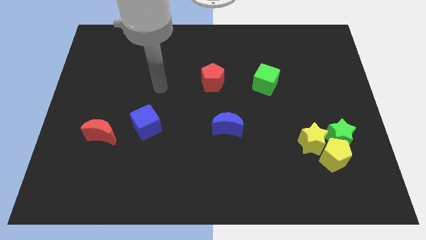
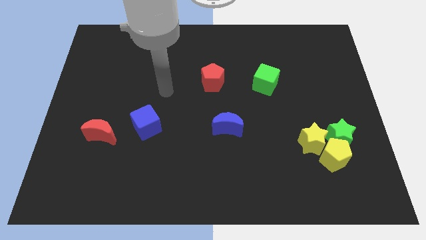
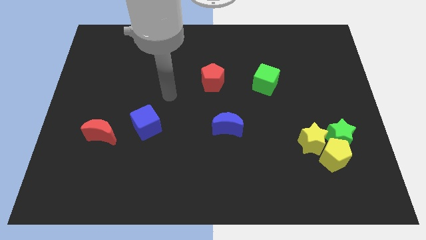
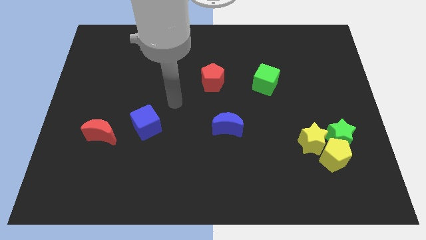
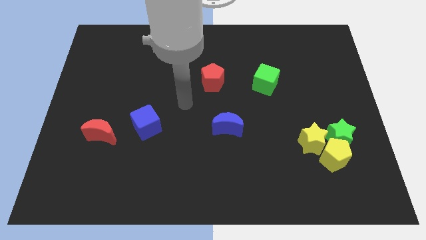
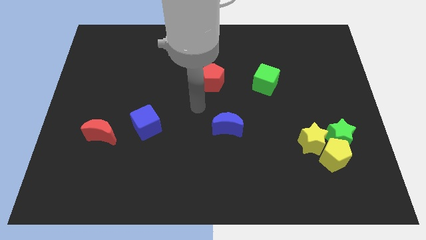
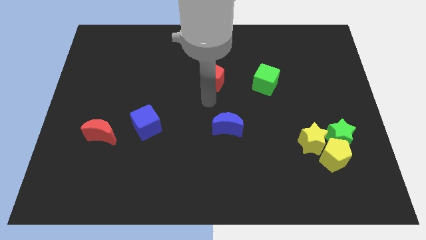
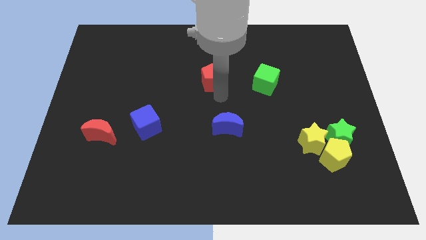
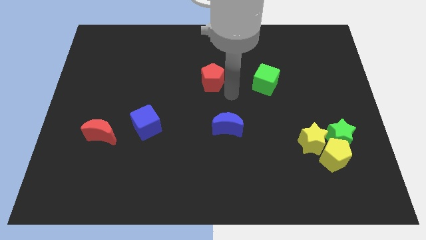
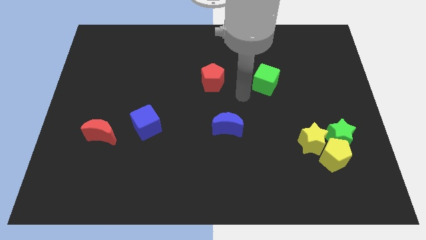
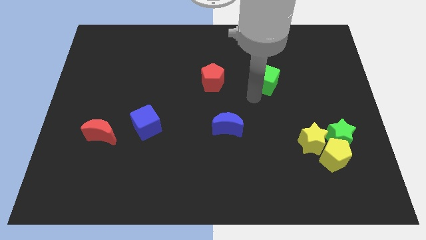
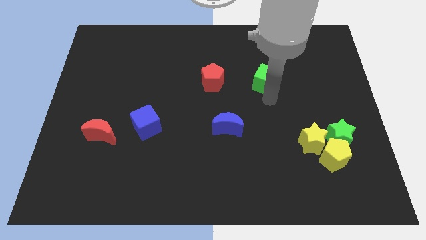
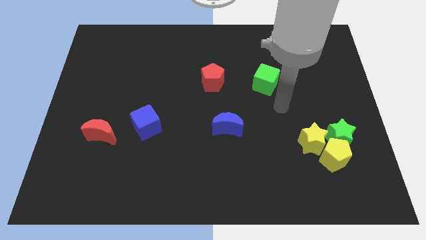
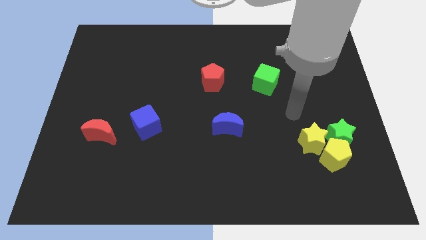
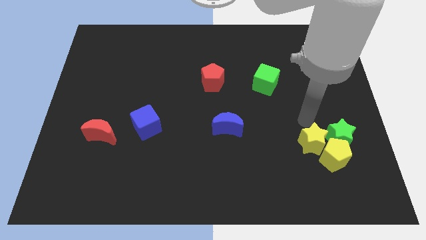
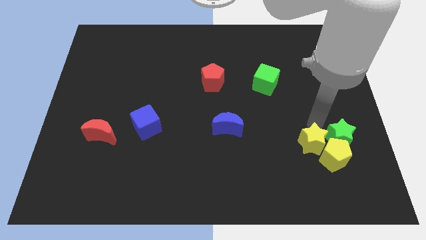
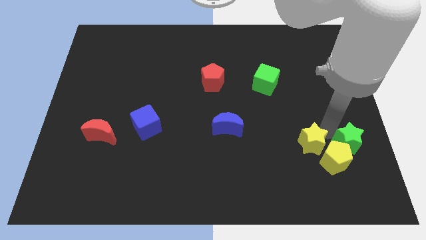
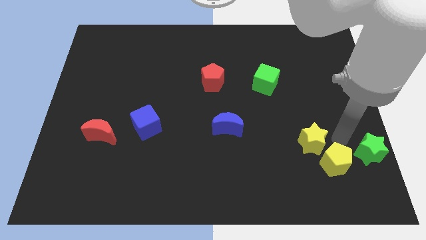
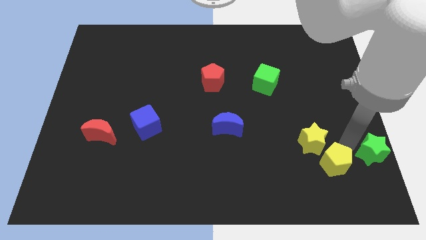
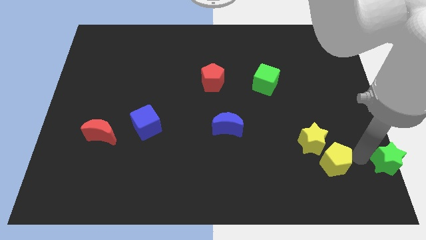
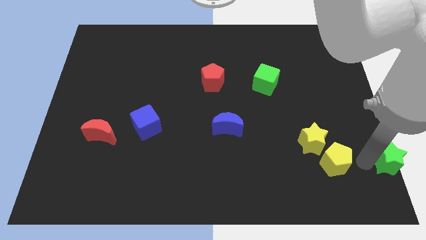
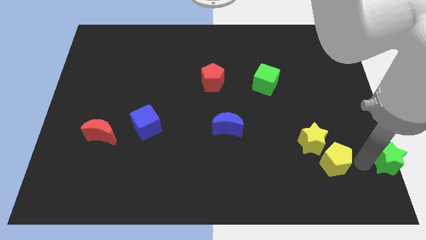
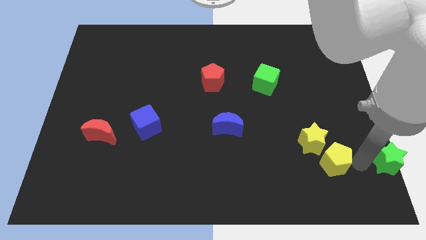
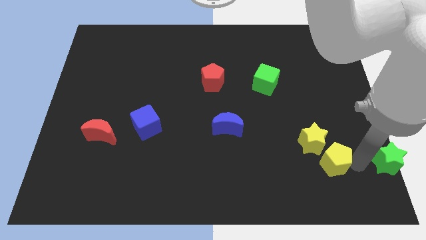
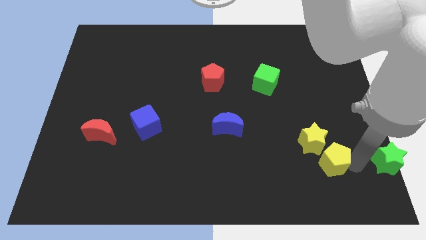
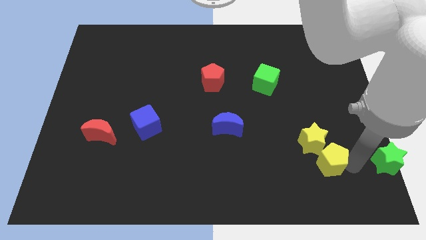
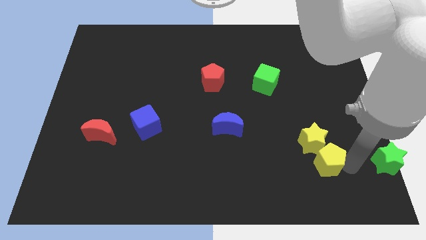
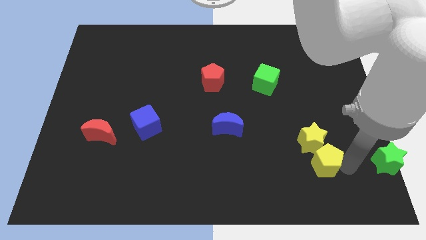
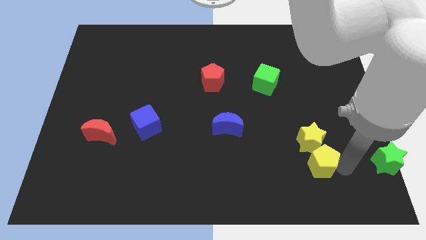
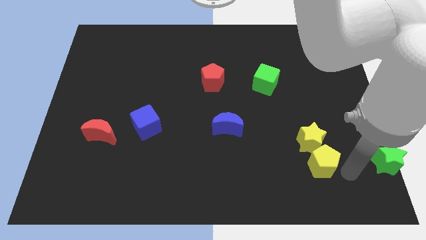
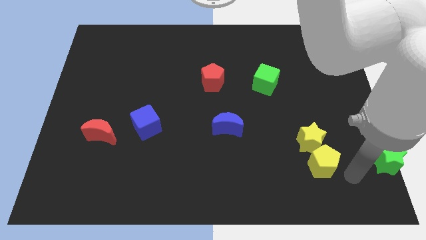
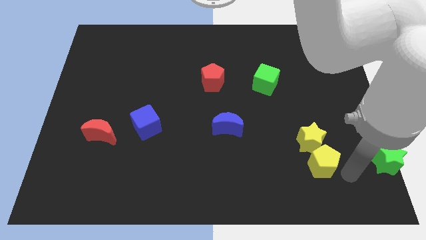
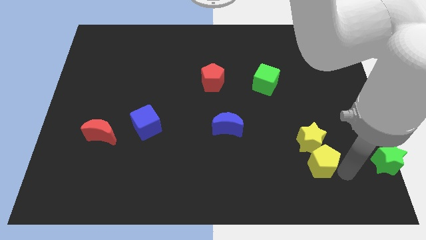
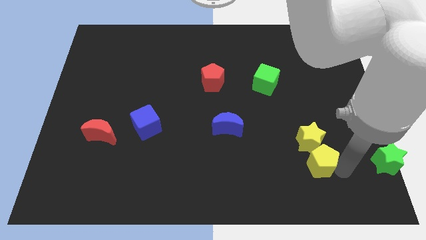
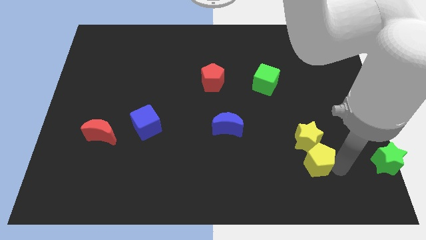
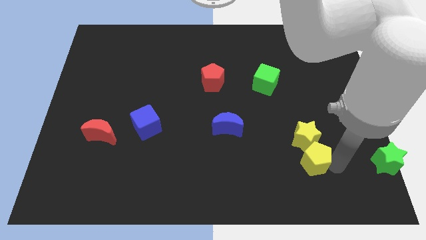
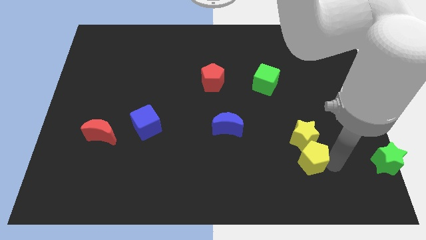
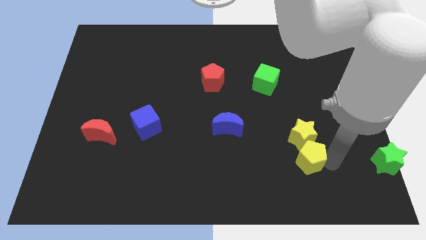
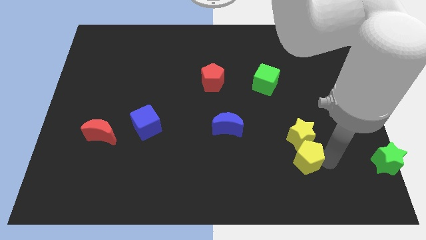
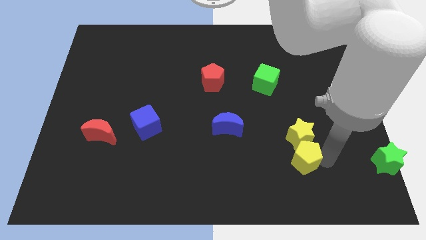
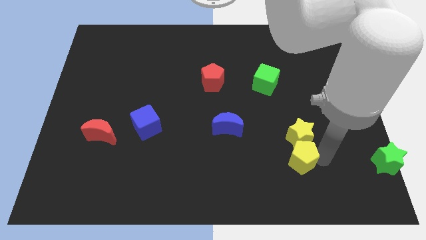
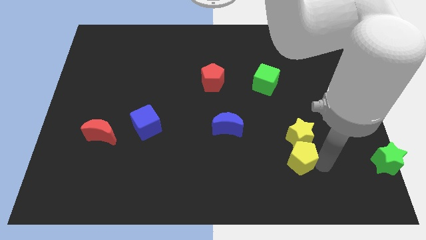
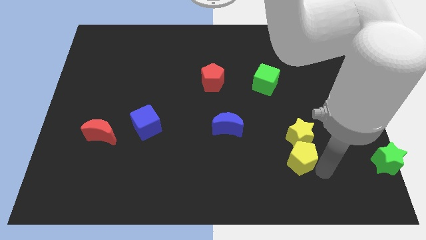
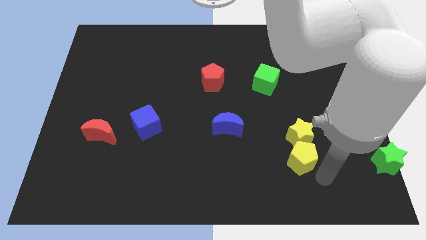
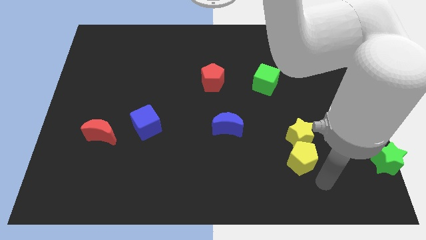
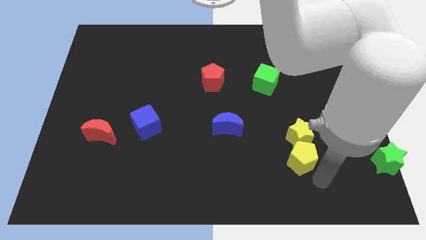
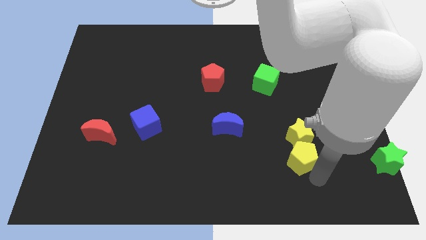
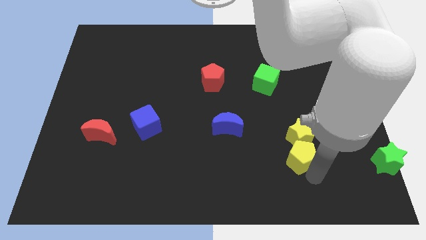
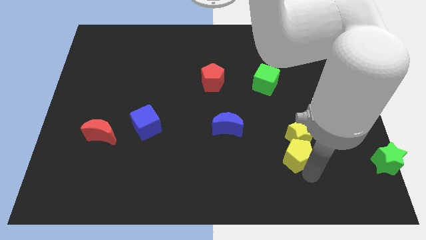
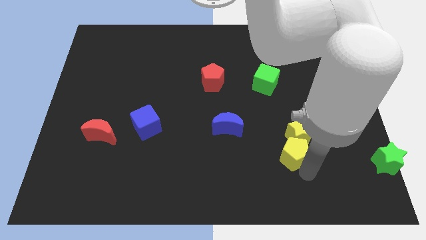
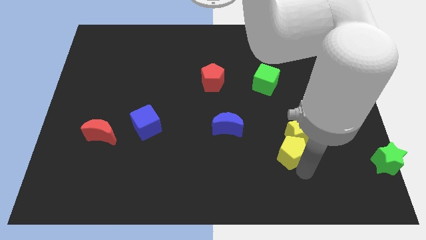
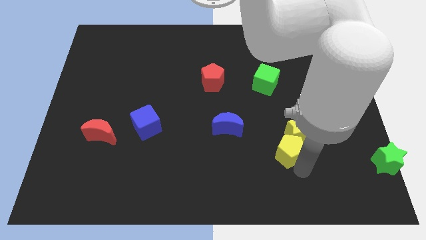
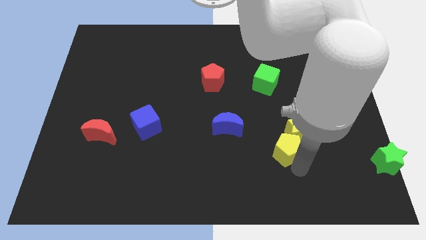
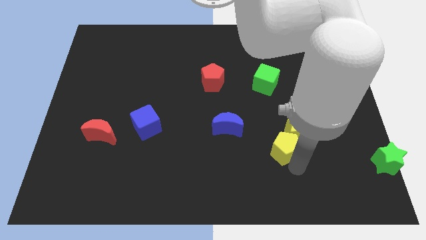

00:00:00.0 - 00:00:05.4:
slide the yellow pentagon a little upwards and to the left diagonally

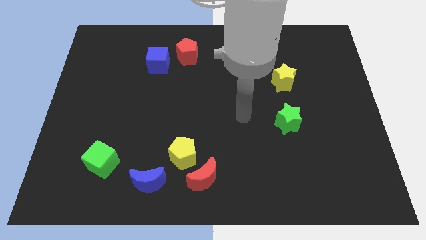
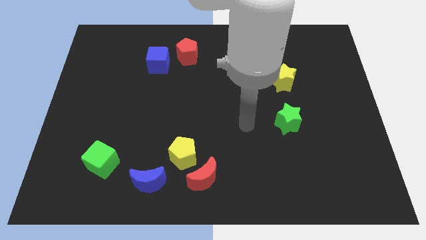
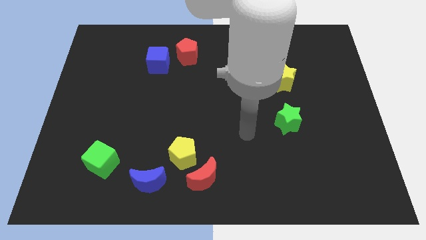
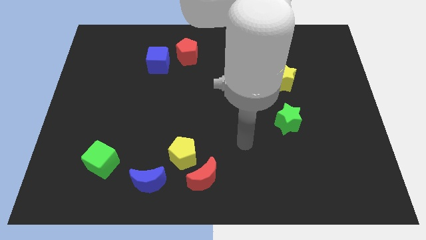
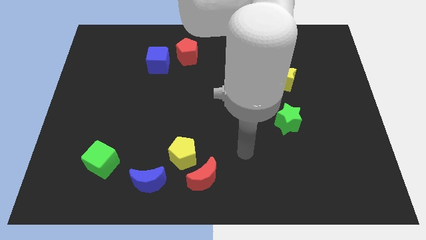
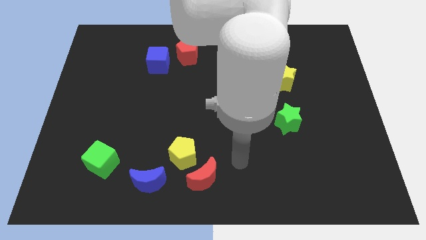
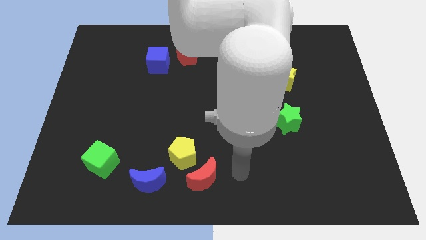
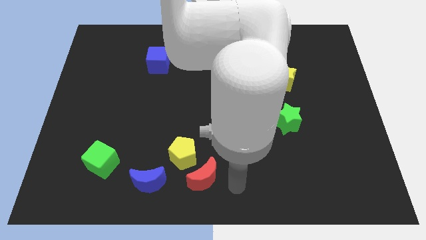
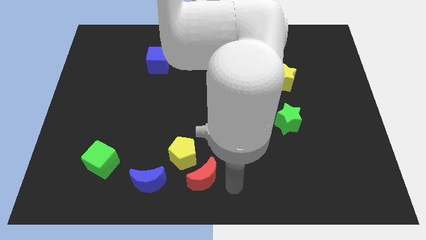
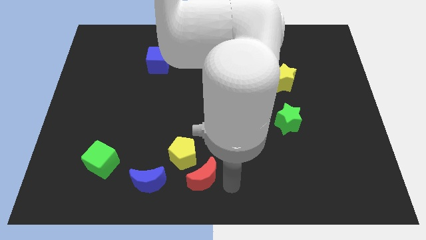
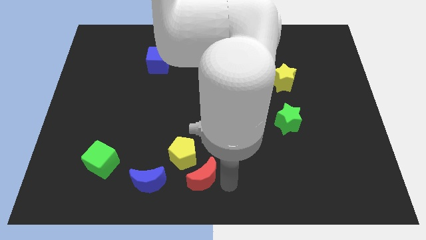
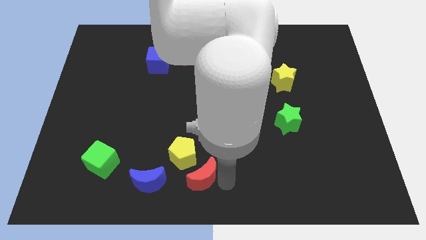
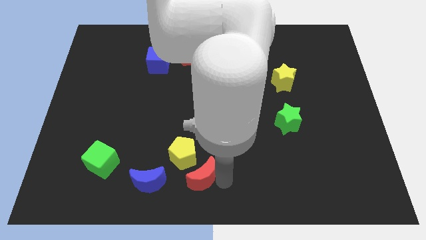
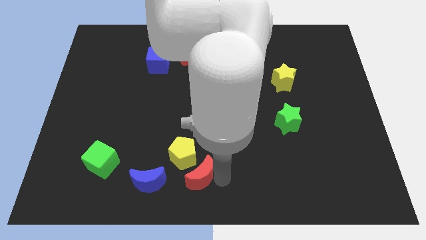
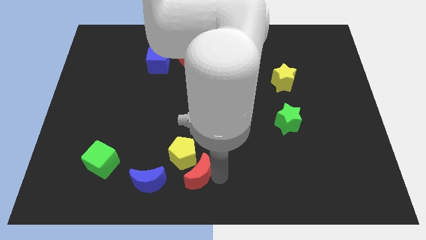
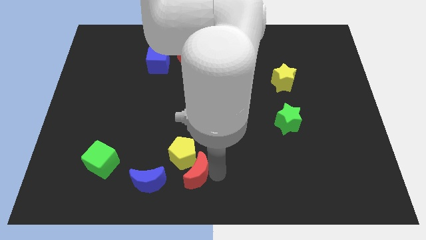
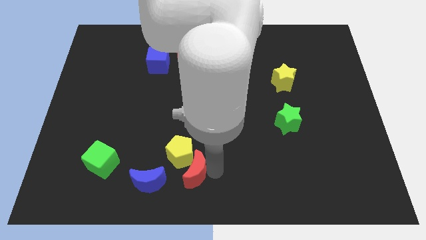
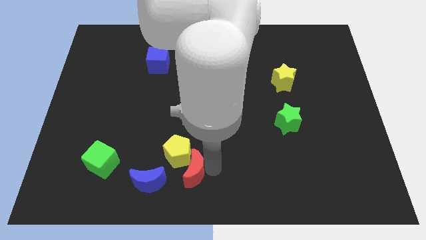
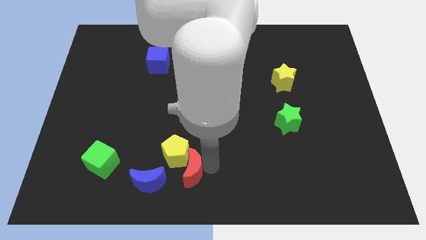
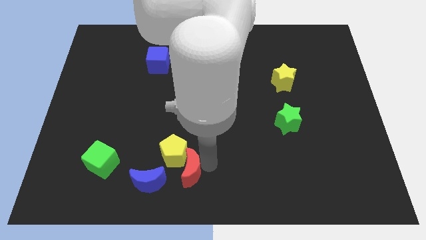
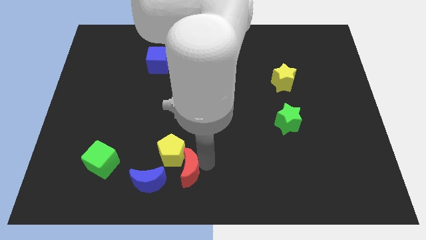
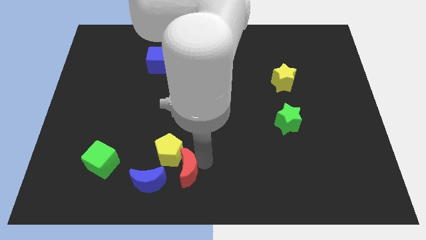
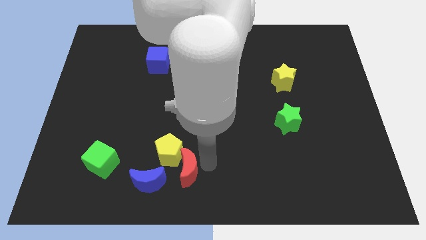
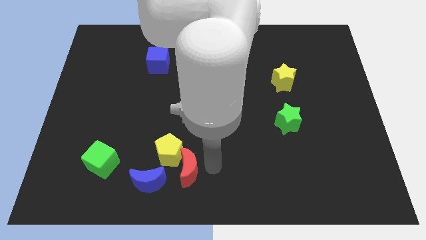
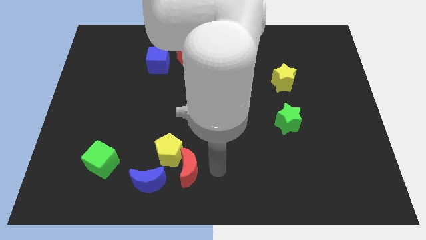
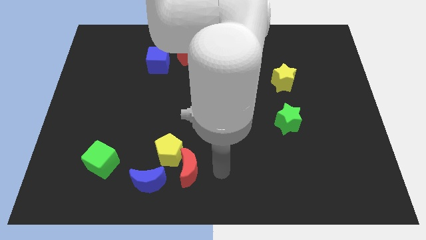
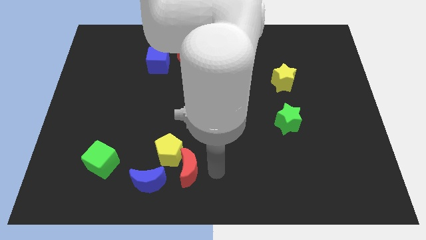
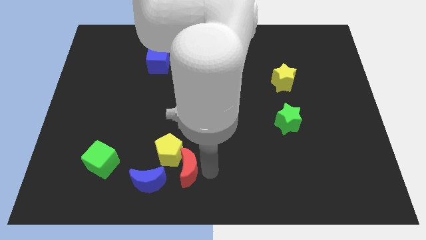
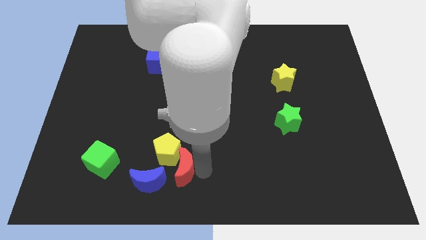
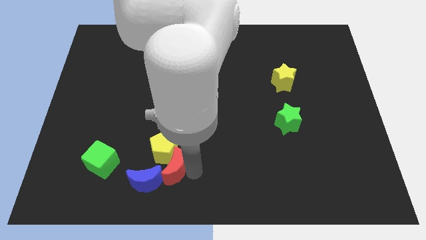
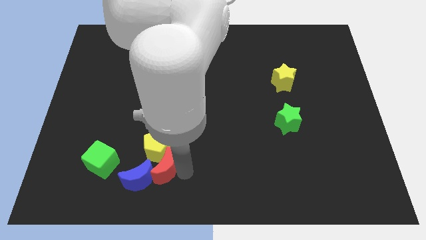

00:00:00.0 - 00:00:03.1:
slightly push the red moon left
